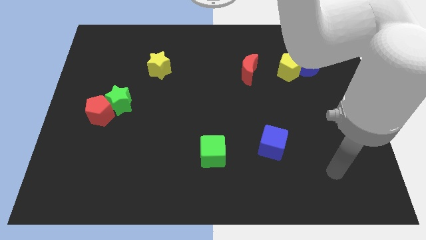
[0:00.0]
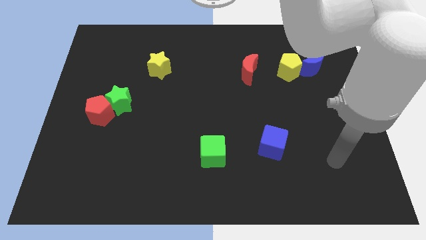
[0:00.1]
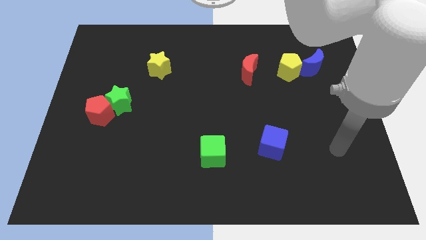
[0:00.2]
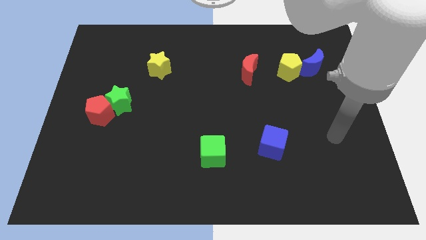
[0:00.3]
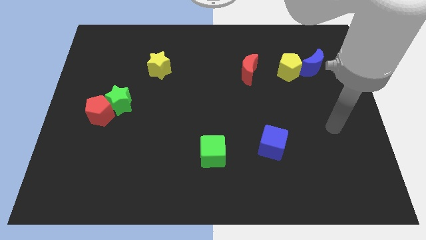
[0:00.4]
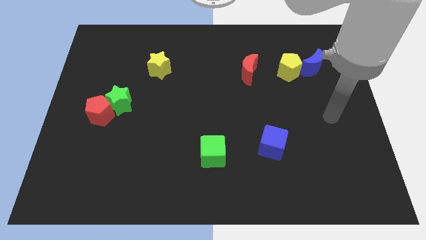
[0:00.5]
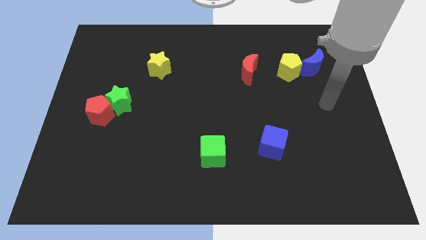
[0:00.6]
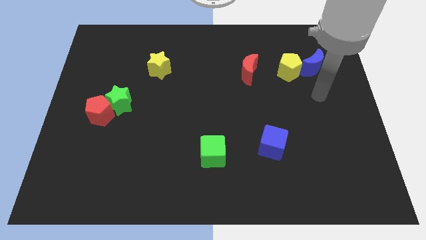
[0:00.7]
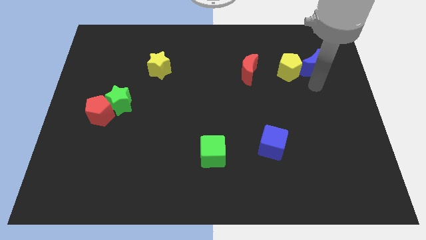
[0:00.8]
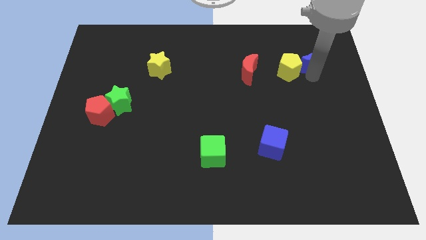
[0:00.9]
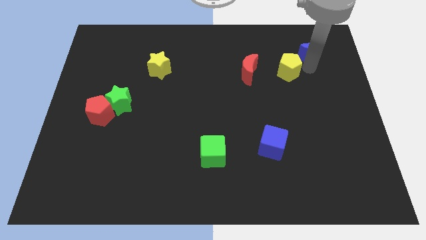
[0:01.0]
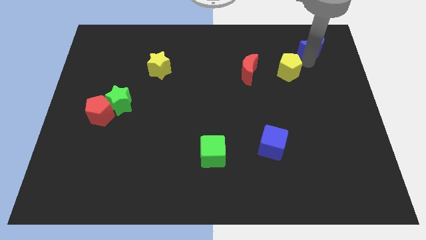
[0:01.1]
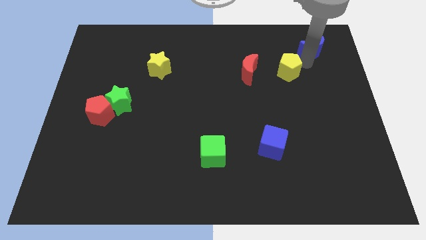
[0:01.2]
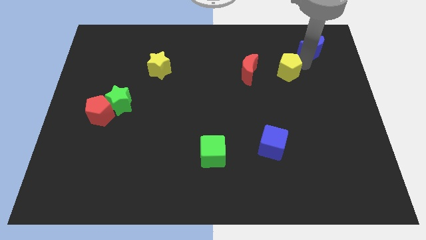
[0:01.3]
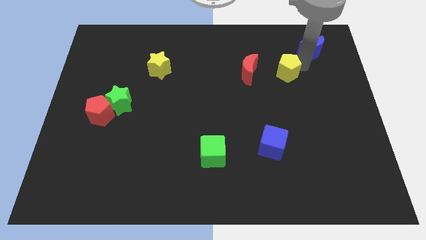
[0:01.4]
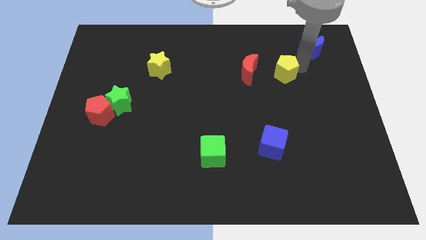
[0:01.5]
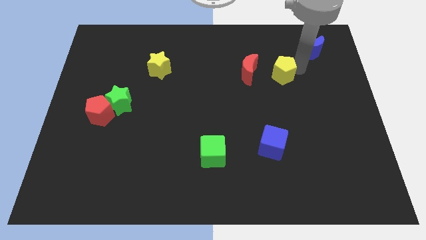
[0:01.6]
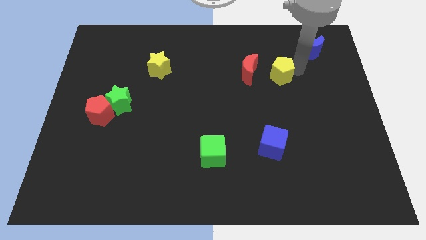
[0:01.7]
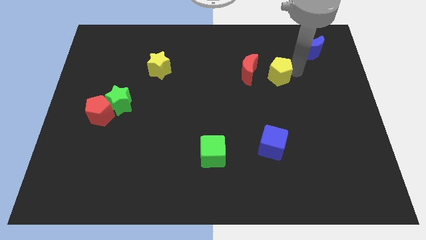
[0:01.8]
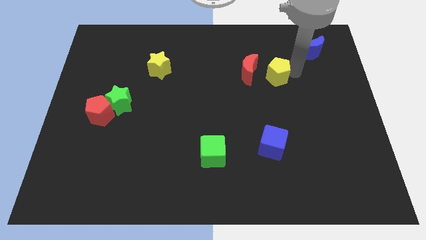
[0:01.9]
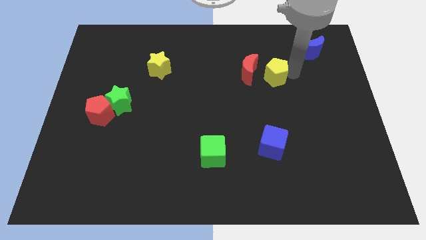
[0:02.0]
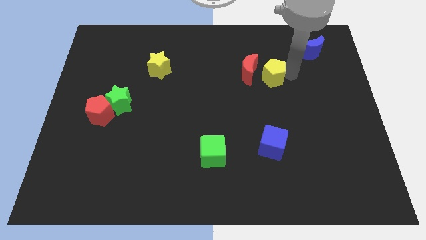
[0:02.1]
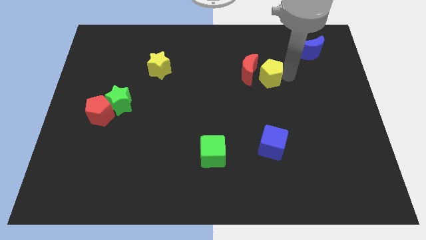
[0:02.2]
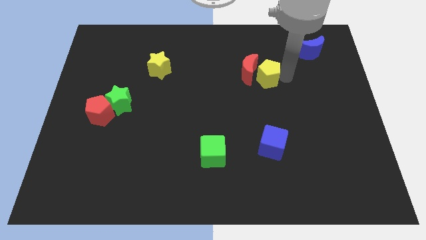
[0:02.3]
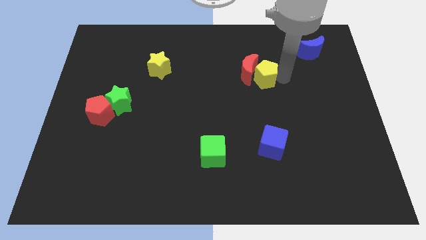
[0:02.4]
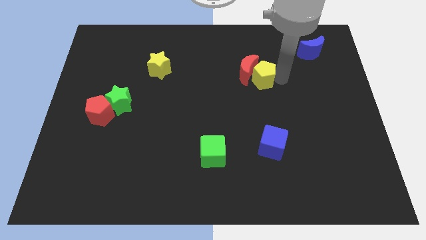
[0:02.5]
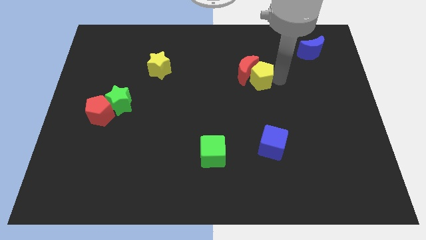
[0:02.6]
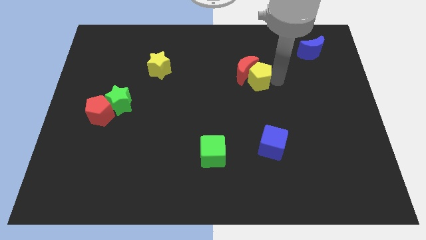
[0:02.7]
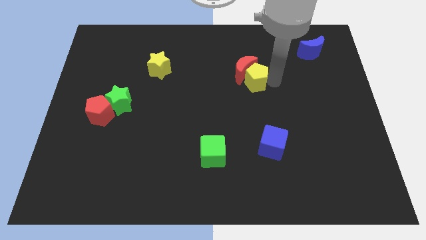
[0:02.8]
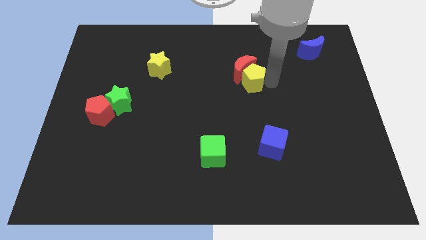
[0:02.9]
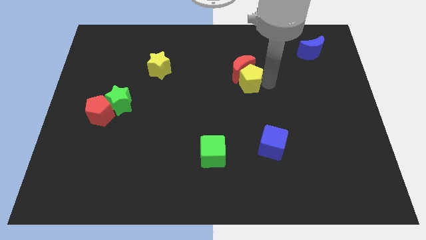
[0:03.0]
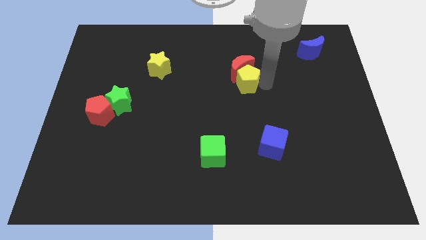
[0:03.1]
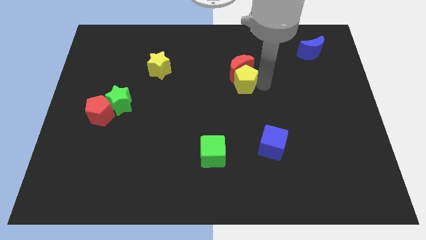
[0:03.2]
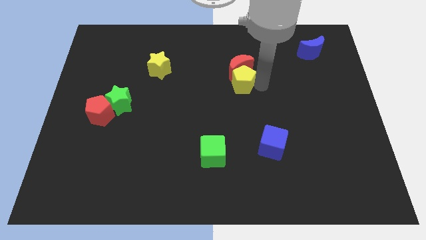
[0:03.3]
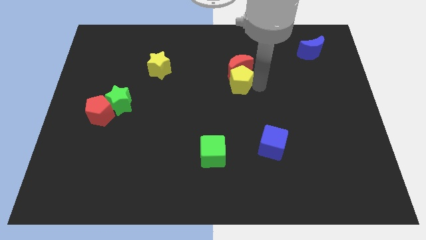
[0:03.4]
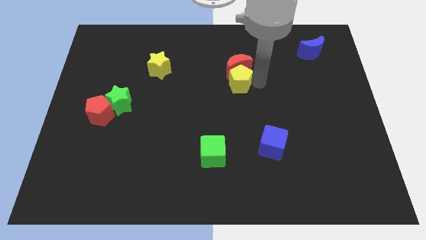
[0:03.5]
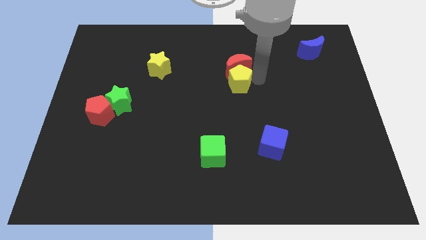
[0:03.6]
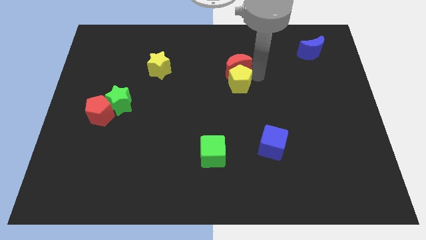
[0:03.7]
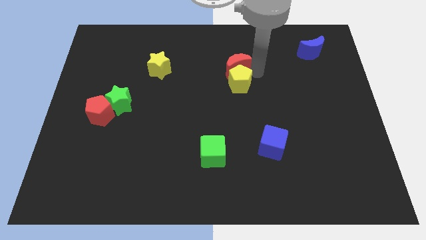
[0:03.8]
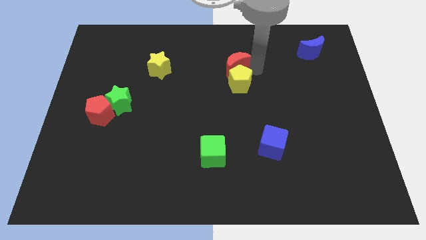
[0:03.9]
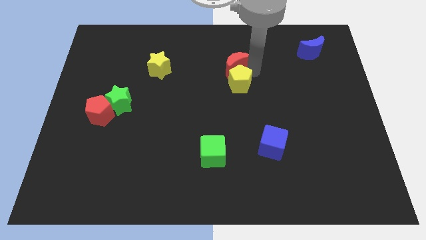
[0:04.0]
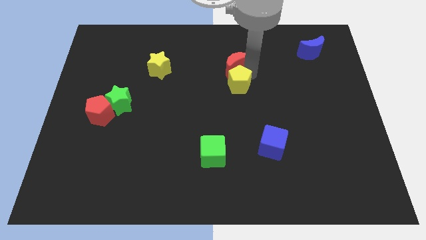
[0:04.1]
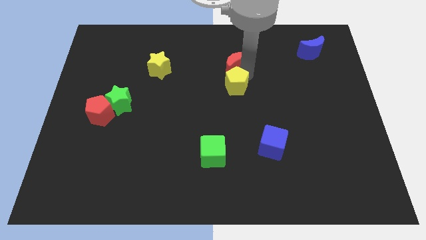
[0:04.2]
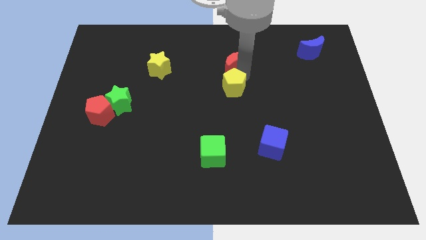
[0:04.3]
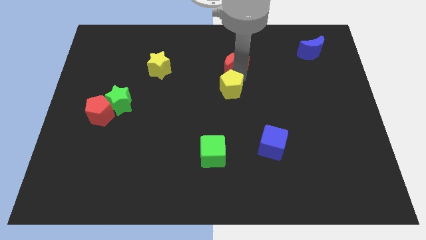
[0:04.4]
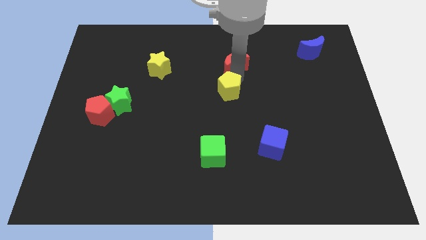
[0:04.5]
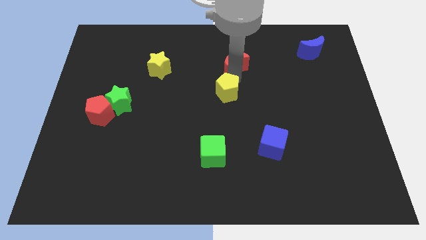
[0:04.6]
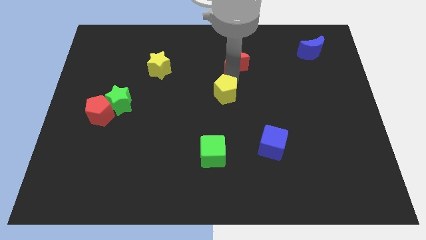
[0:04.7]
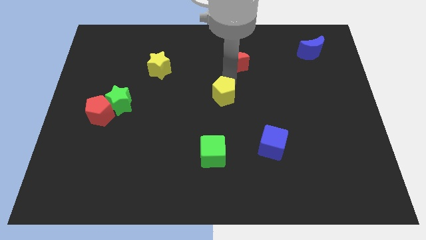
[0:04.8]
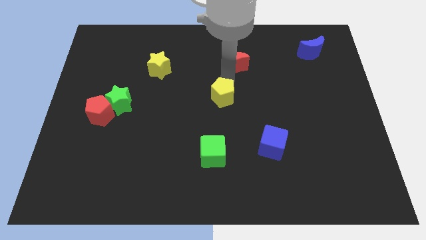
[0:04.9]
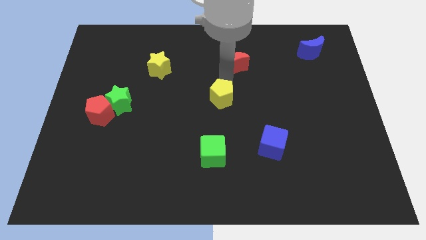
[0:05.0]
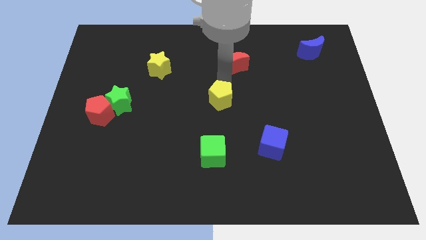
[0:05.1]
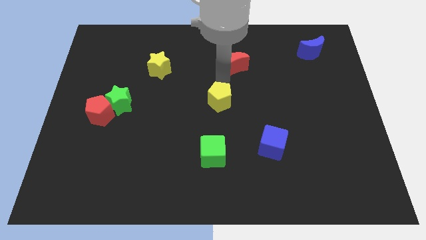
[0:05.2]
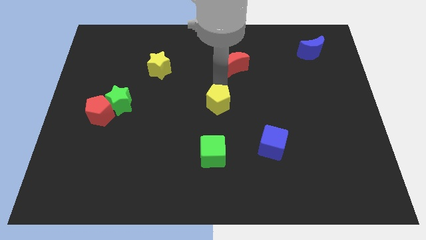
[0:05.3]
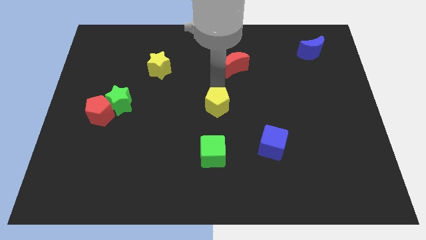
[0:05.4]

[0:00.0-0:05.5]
slide the yellow pentagon down and left diagonally

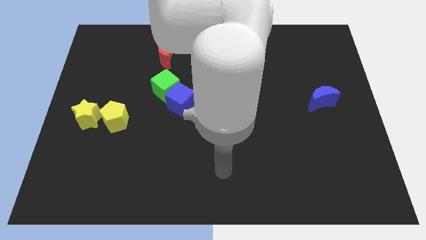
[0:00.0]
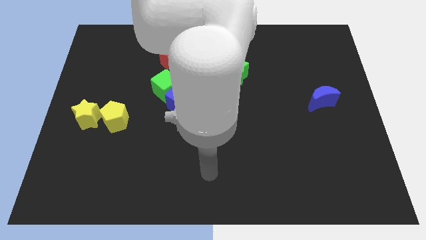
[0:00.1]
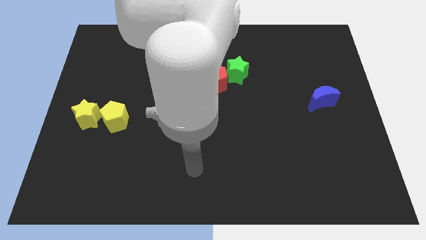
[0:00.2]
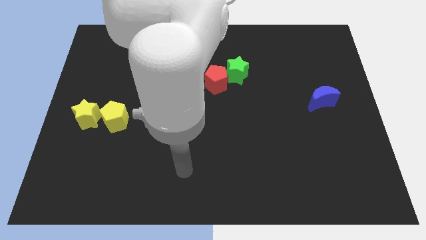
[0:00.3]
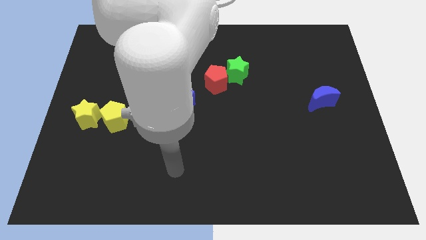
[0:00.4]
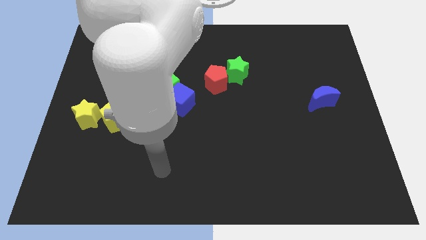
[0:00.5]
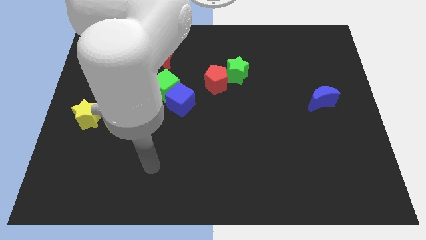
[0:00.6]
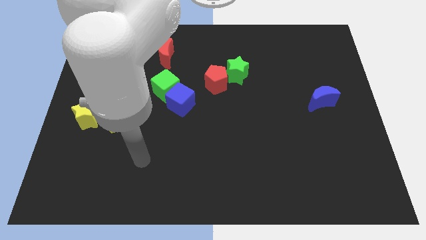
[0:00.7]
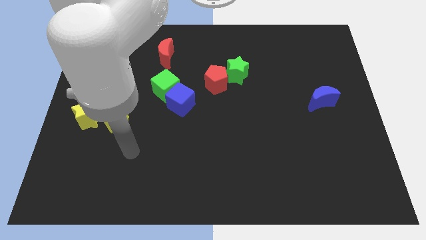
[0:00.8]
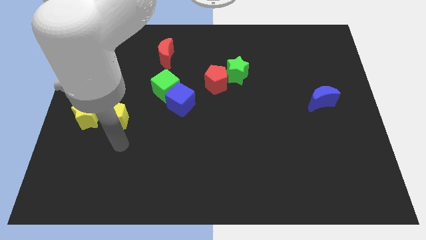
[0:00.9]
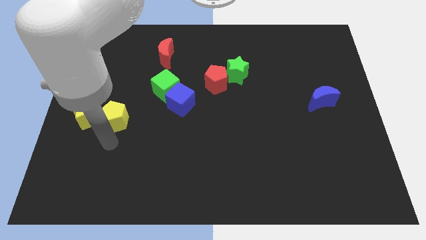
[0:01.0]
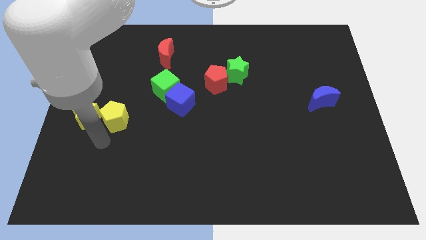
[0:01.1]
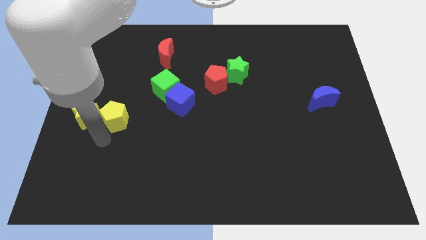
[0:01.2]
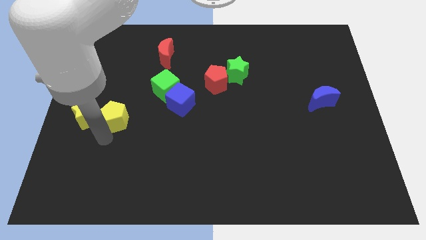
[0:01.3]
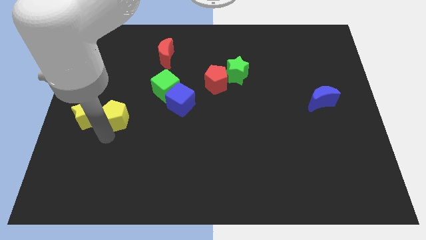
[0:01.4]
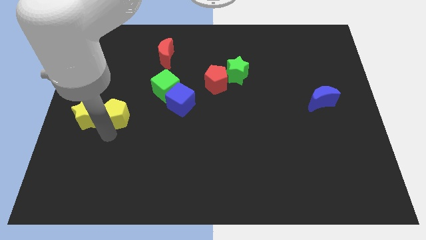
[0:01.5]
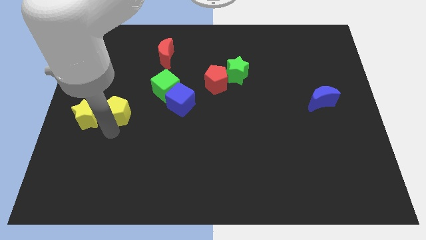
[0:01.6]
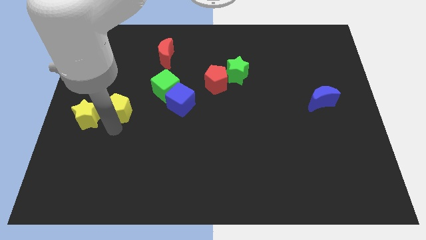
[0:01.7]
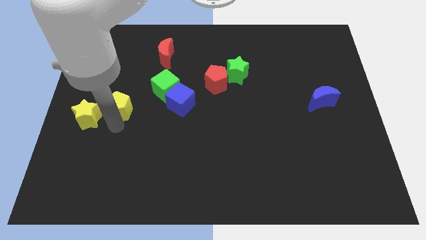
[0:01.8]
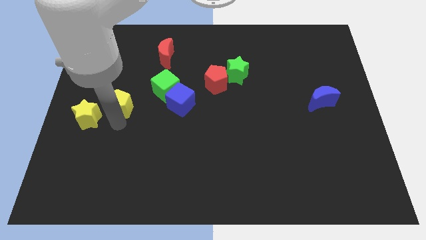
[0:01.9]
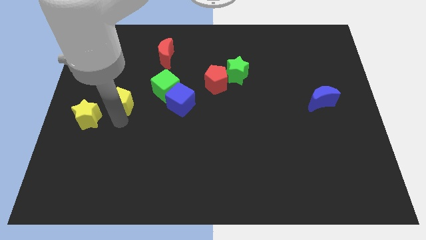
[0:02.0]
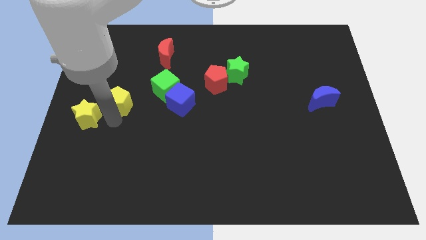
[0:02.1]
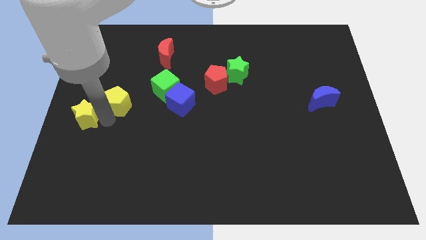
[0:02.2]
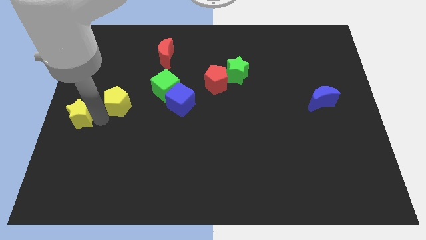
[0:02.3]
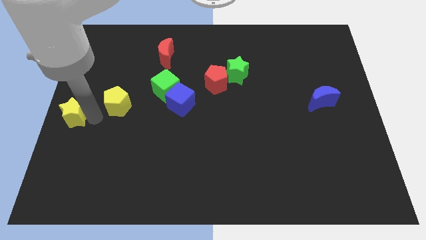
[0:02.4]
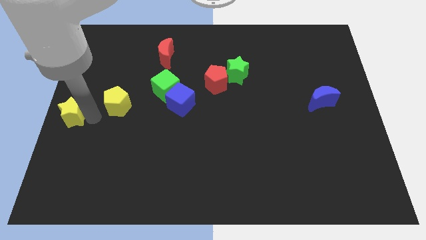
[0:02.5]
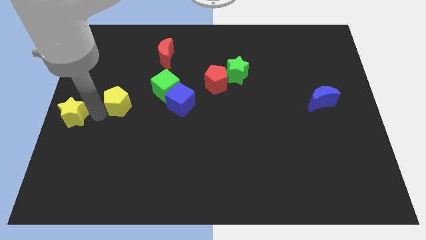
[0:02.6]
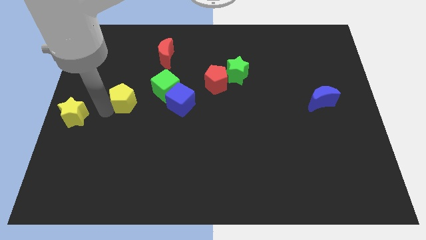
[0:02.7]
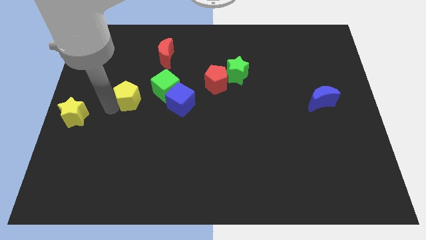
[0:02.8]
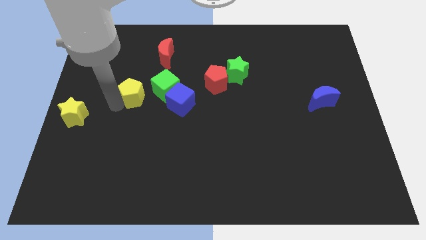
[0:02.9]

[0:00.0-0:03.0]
move the yellow pentagon upwards and then to the right a little
